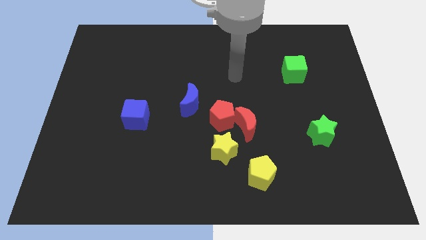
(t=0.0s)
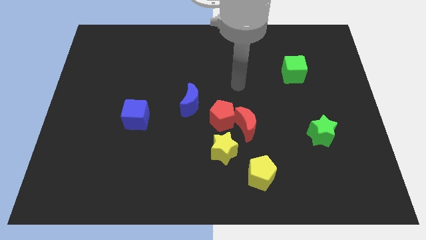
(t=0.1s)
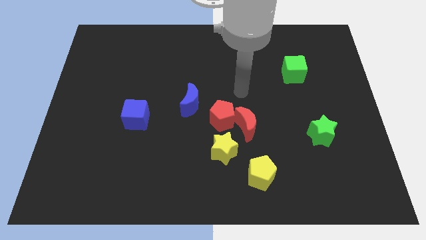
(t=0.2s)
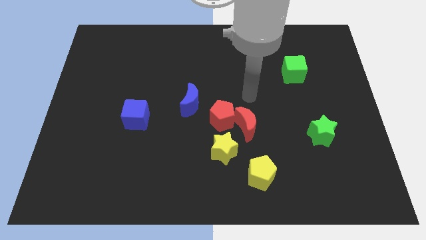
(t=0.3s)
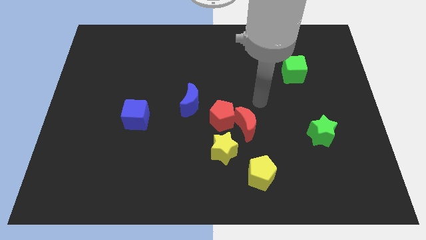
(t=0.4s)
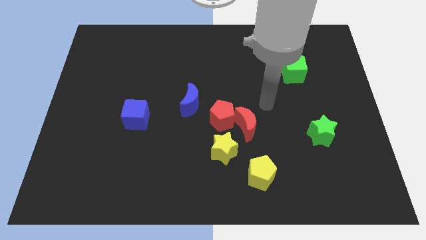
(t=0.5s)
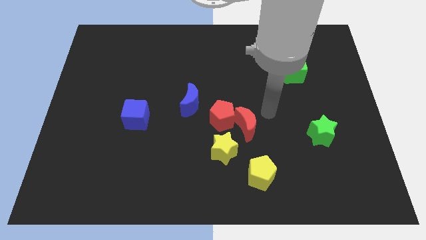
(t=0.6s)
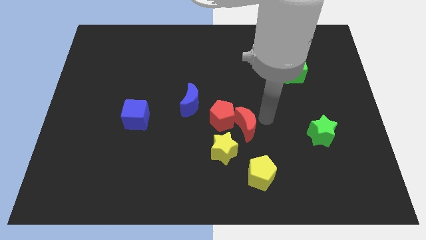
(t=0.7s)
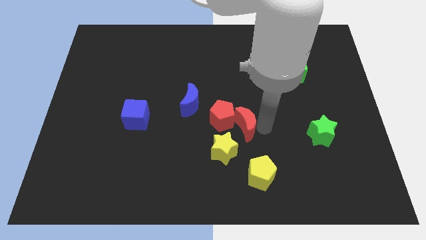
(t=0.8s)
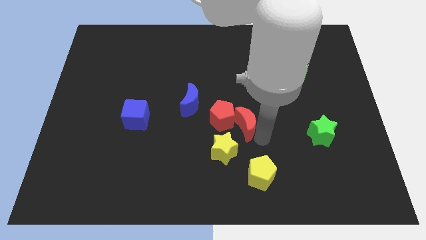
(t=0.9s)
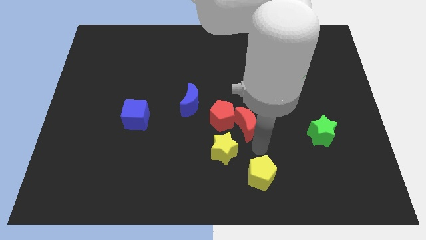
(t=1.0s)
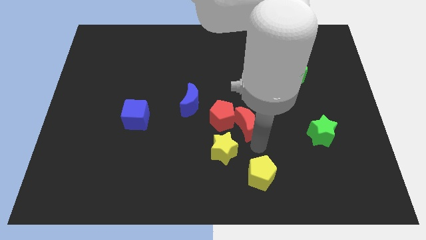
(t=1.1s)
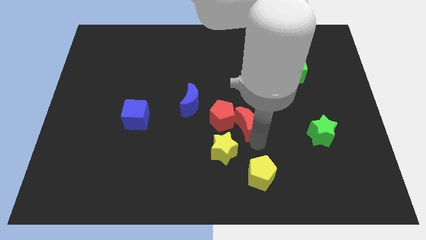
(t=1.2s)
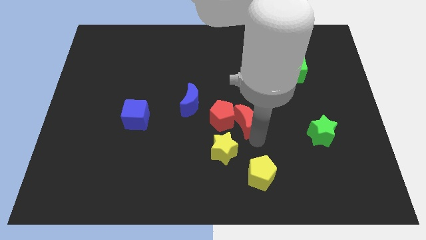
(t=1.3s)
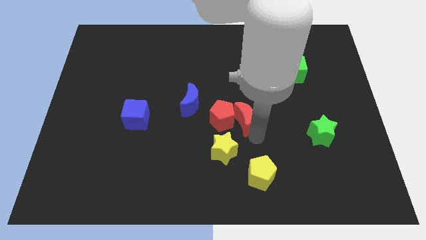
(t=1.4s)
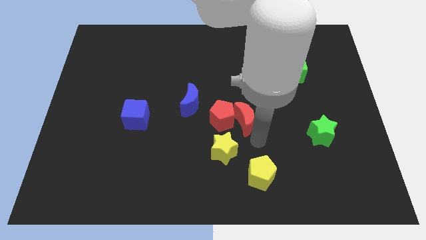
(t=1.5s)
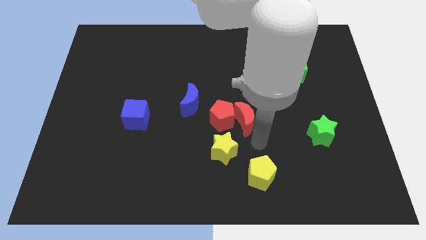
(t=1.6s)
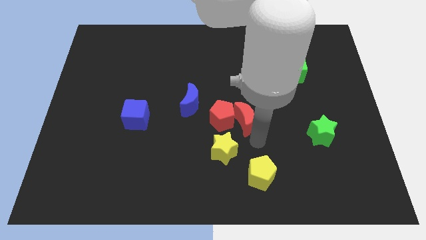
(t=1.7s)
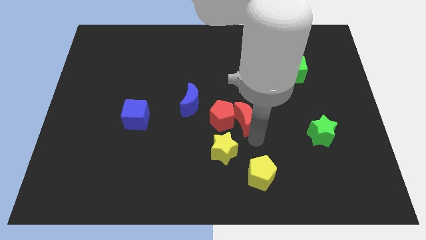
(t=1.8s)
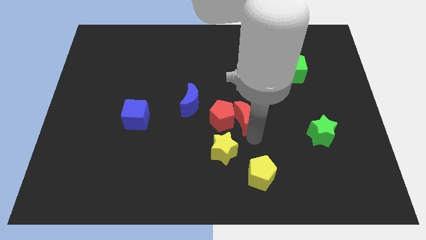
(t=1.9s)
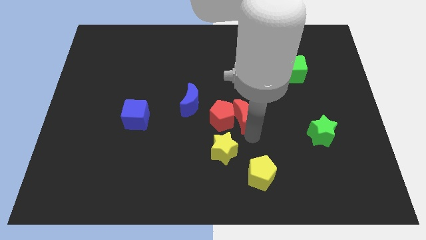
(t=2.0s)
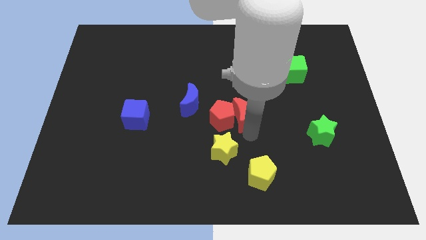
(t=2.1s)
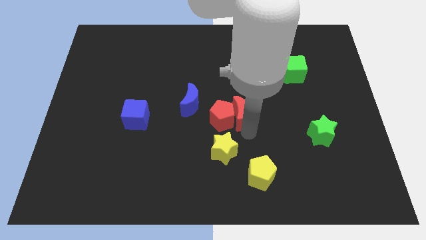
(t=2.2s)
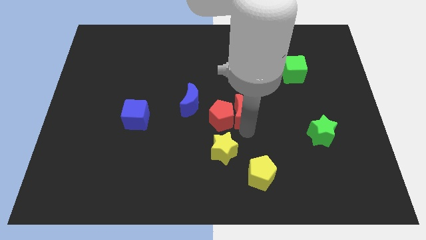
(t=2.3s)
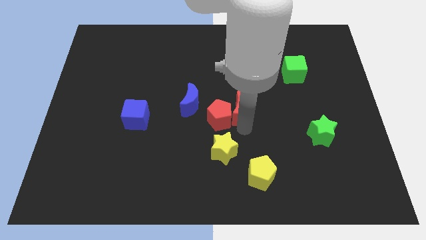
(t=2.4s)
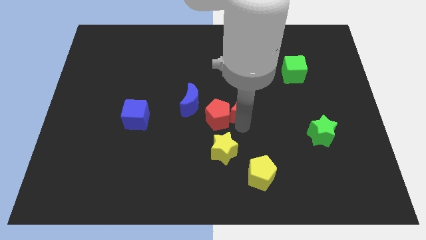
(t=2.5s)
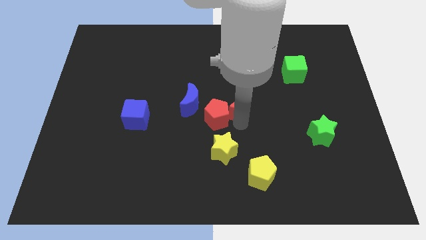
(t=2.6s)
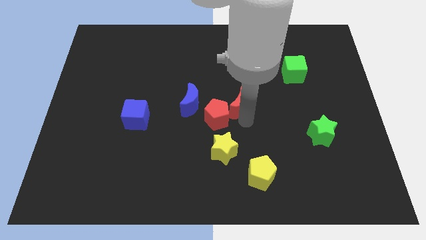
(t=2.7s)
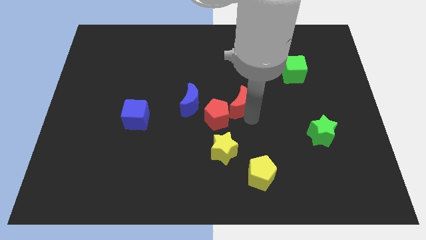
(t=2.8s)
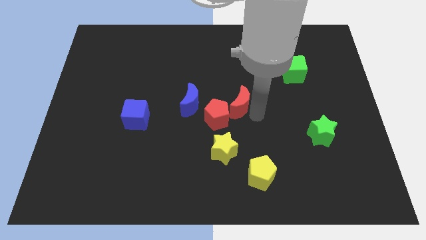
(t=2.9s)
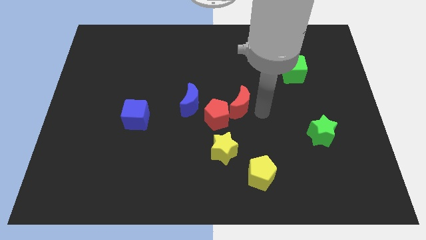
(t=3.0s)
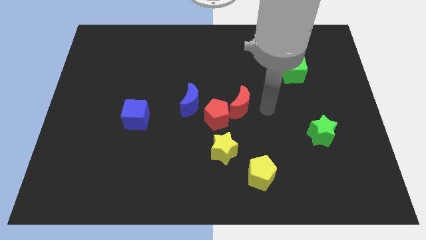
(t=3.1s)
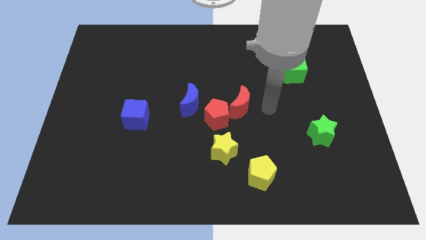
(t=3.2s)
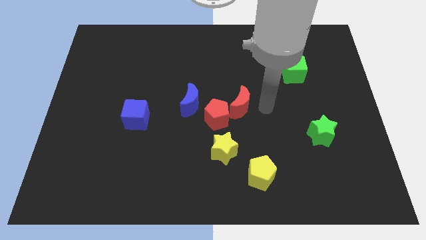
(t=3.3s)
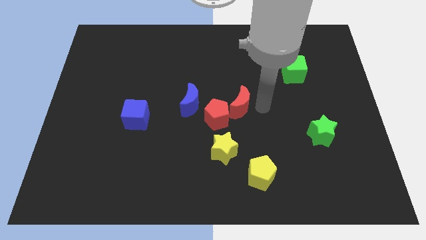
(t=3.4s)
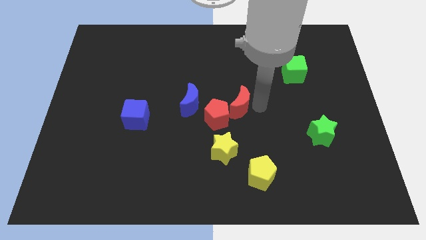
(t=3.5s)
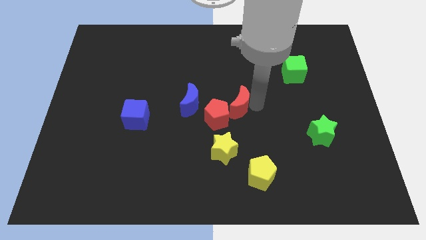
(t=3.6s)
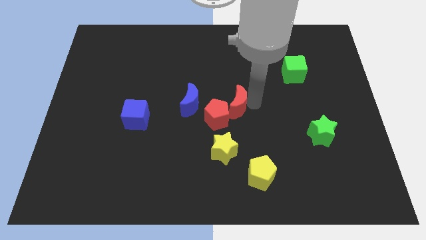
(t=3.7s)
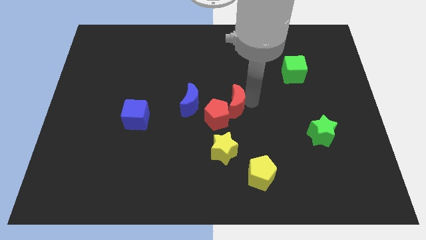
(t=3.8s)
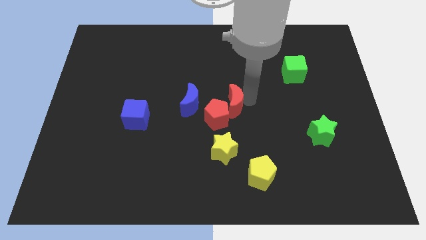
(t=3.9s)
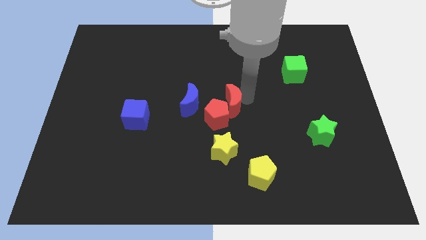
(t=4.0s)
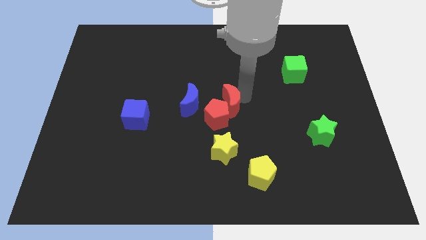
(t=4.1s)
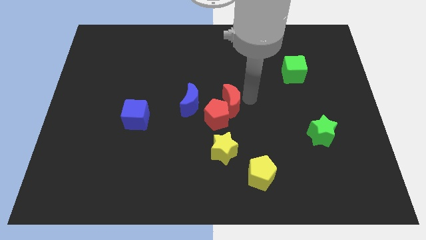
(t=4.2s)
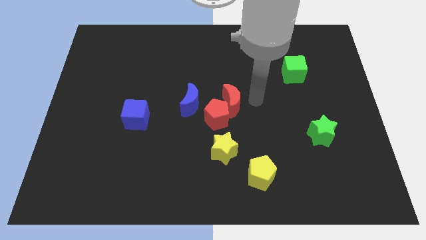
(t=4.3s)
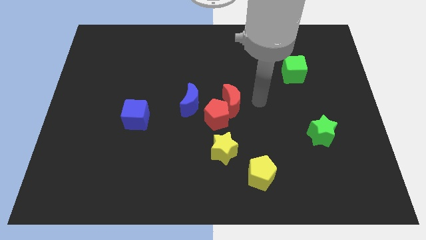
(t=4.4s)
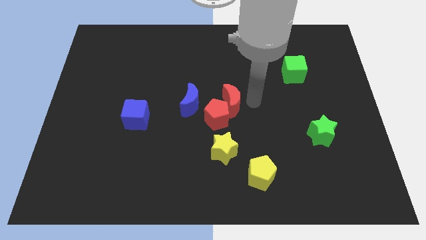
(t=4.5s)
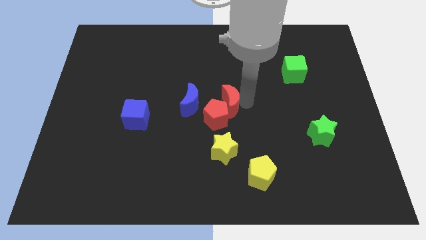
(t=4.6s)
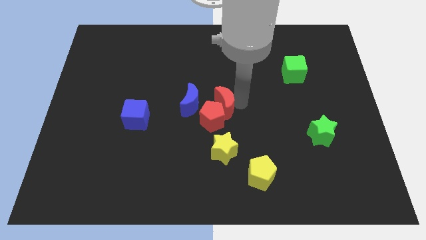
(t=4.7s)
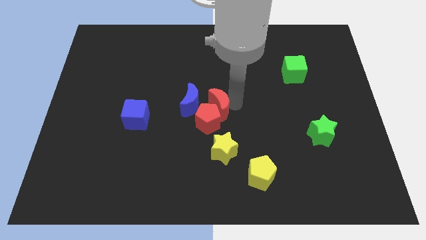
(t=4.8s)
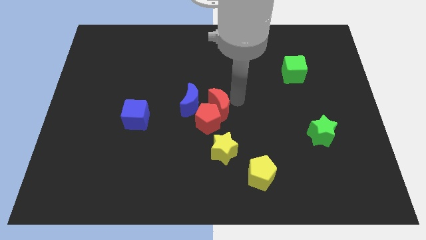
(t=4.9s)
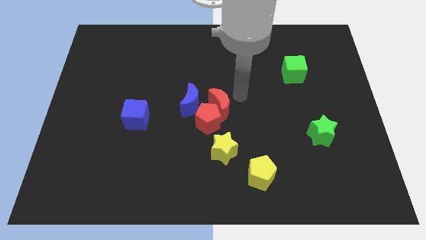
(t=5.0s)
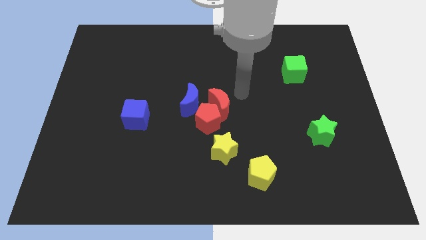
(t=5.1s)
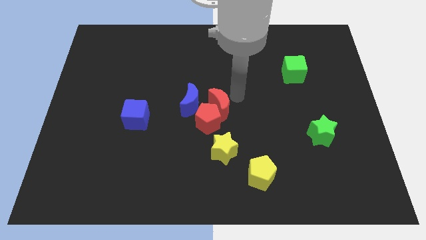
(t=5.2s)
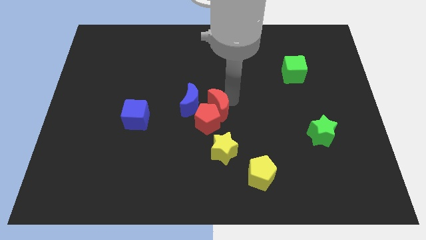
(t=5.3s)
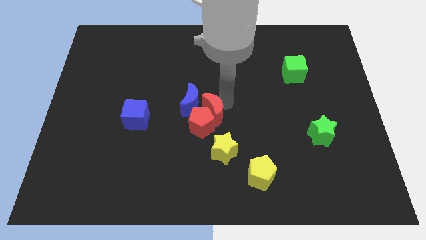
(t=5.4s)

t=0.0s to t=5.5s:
move the red moon a little to the left

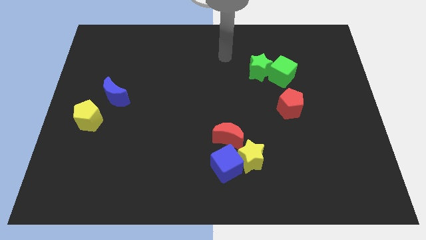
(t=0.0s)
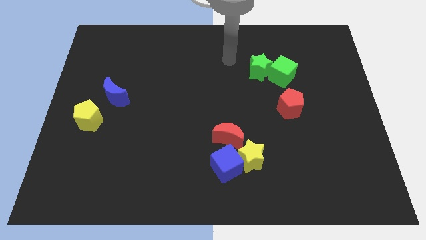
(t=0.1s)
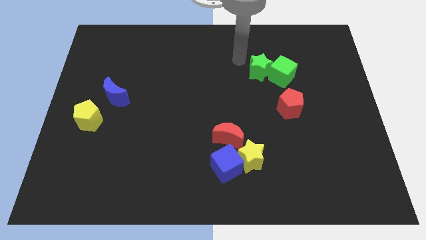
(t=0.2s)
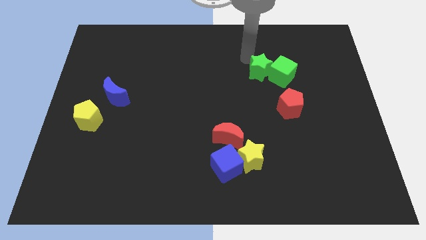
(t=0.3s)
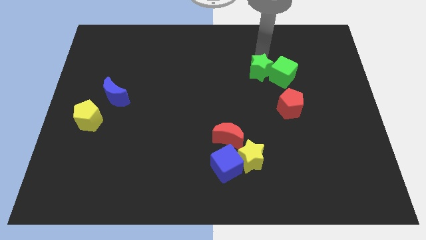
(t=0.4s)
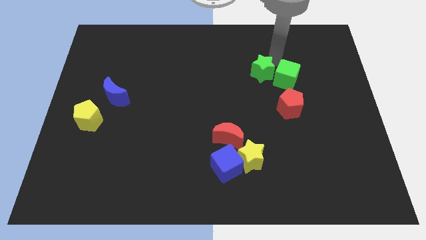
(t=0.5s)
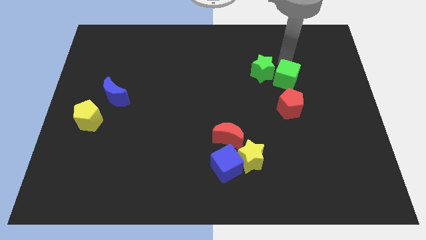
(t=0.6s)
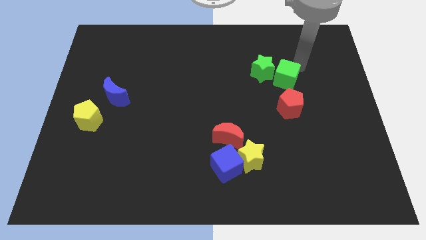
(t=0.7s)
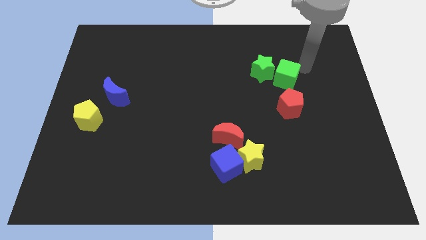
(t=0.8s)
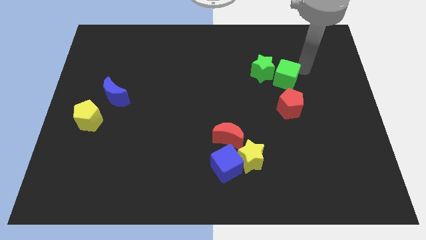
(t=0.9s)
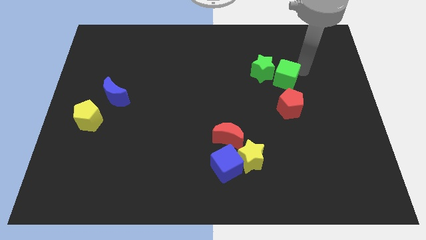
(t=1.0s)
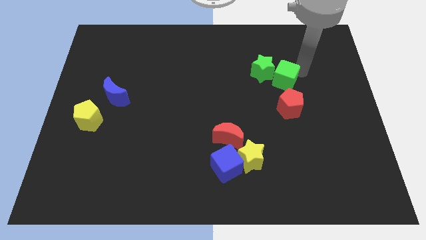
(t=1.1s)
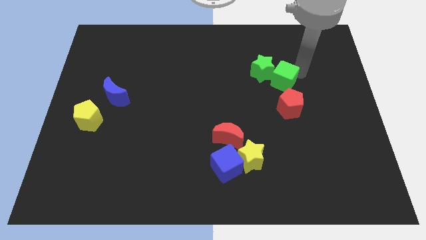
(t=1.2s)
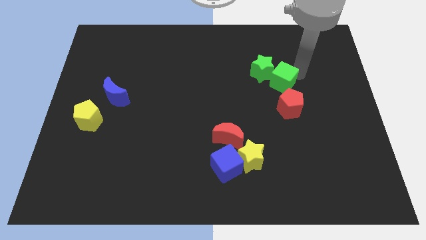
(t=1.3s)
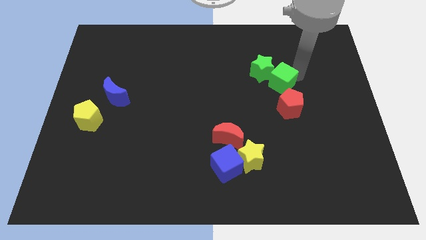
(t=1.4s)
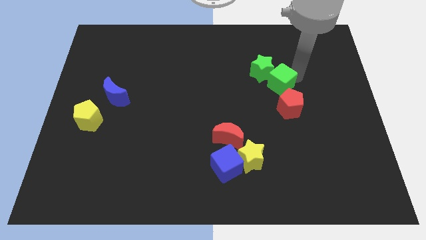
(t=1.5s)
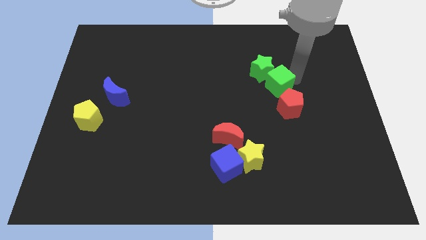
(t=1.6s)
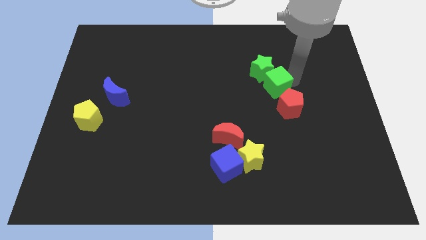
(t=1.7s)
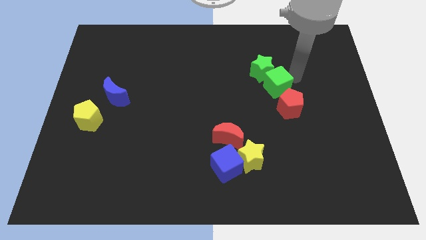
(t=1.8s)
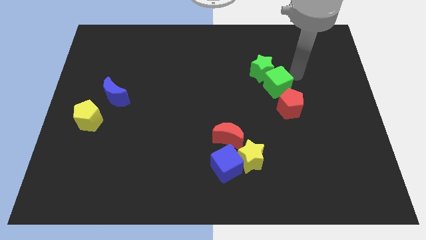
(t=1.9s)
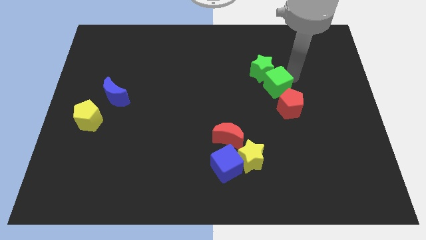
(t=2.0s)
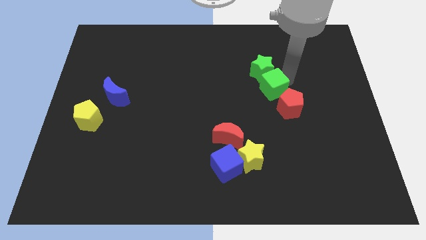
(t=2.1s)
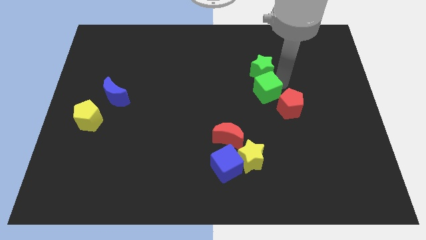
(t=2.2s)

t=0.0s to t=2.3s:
move the green cube downwards and left diagonally somewhat

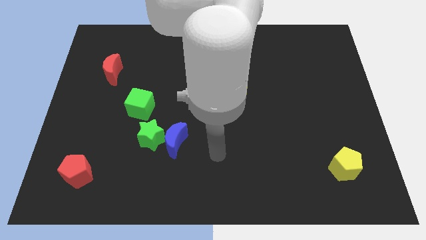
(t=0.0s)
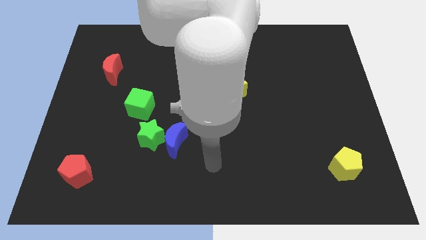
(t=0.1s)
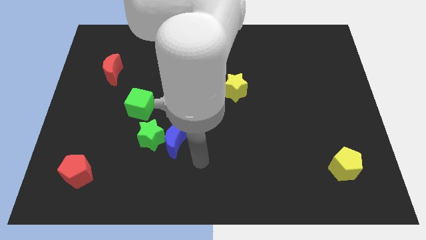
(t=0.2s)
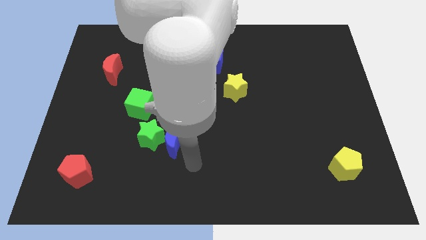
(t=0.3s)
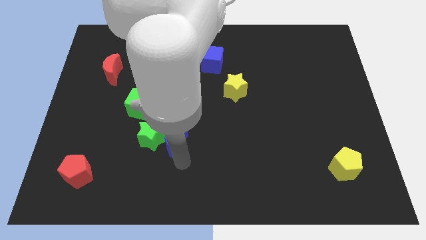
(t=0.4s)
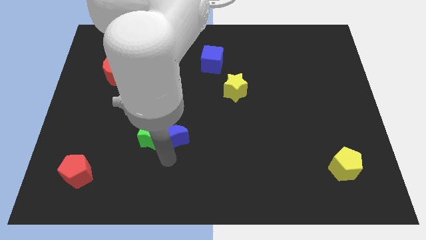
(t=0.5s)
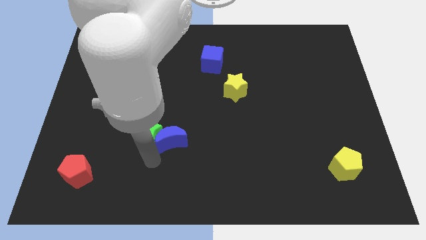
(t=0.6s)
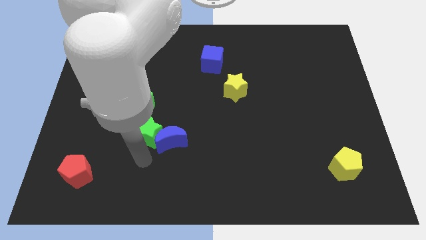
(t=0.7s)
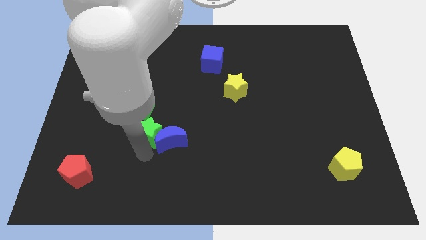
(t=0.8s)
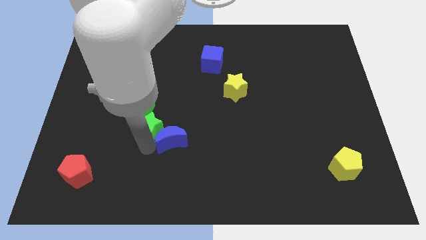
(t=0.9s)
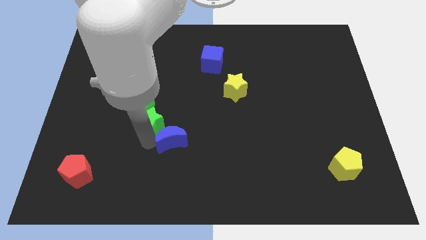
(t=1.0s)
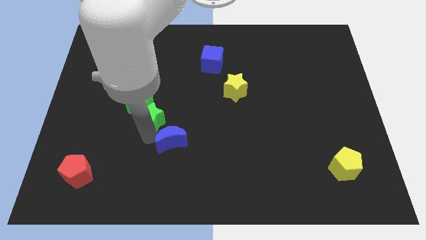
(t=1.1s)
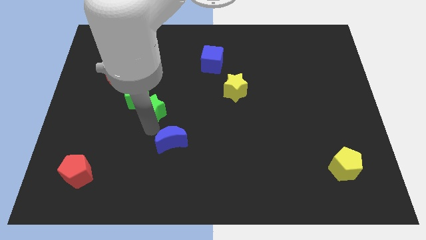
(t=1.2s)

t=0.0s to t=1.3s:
slightly slide the green star up
